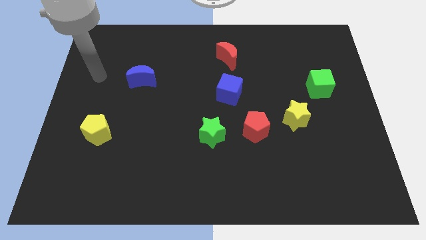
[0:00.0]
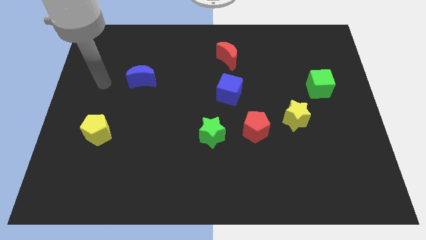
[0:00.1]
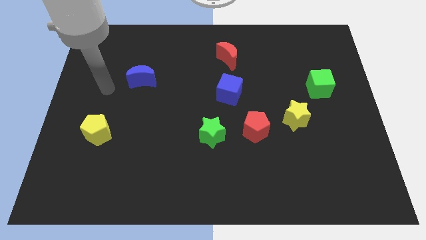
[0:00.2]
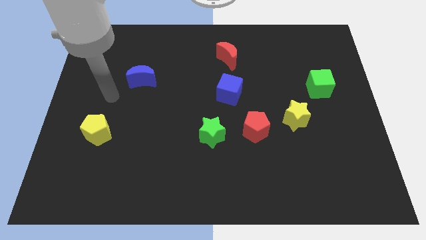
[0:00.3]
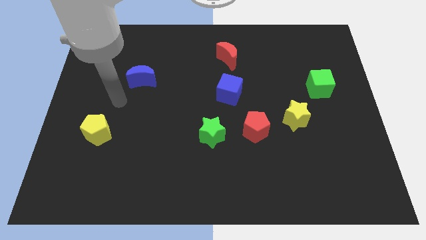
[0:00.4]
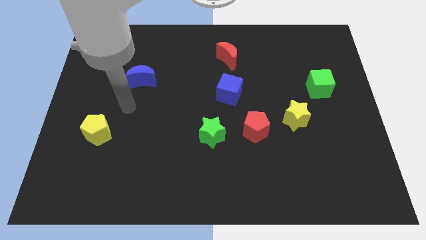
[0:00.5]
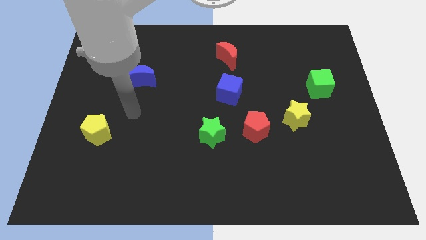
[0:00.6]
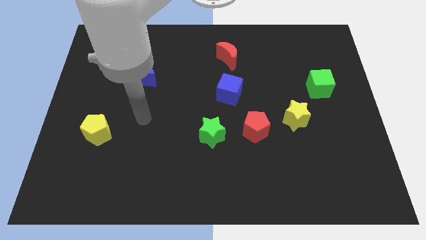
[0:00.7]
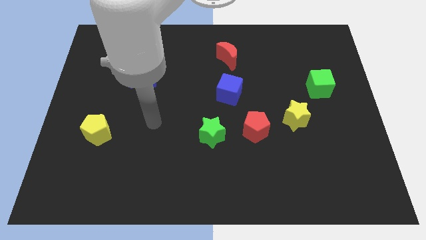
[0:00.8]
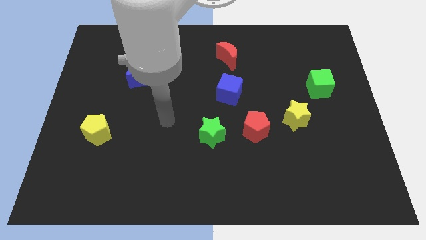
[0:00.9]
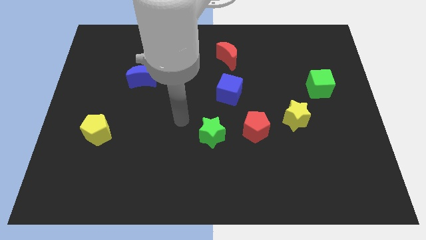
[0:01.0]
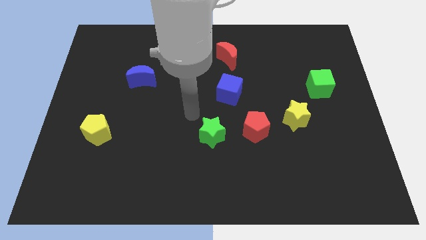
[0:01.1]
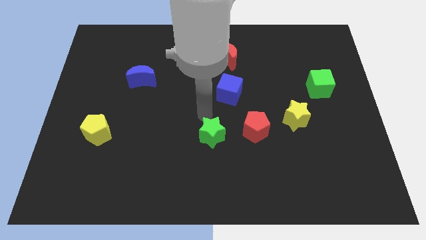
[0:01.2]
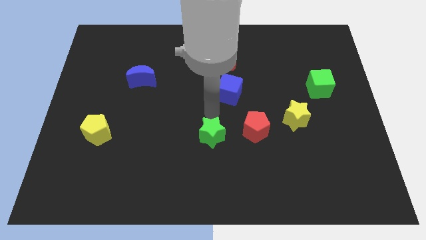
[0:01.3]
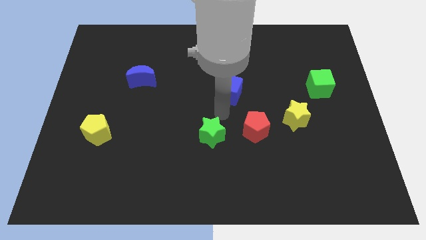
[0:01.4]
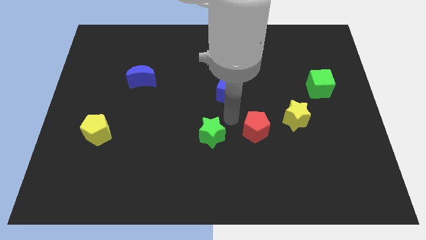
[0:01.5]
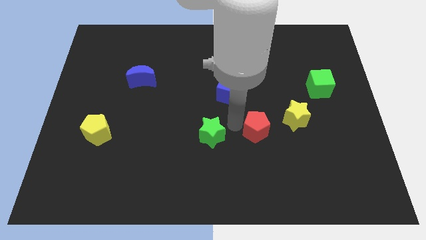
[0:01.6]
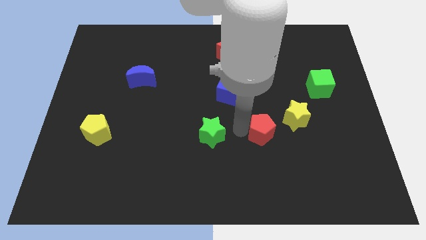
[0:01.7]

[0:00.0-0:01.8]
separate the green star from the red pentagon

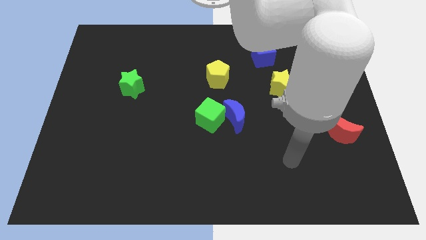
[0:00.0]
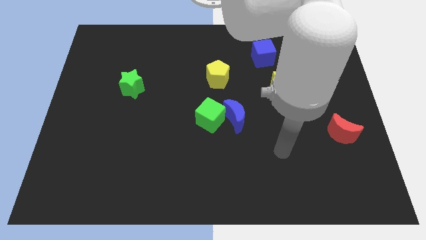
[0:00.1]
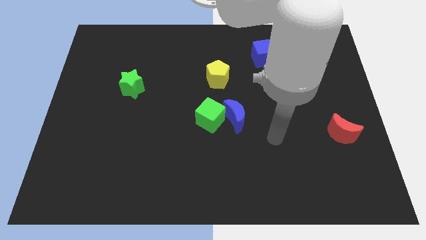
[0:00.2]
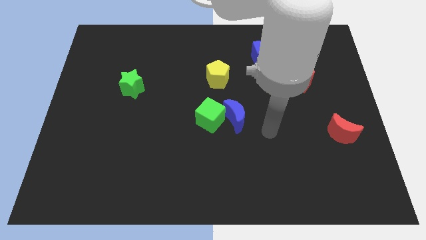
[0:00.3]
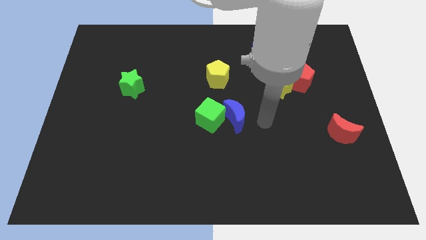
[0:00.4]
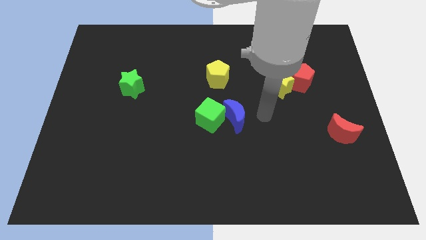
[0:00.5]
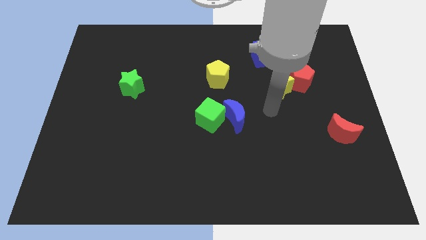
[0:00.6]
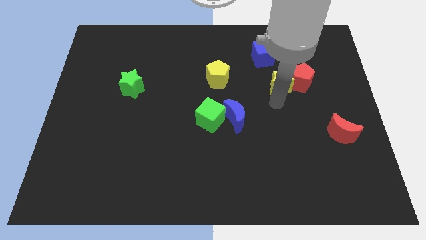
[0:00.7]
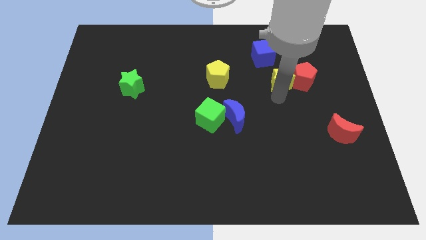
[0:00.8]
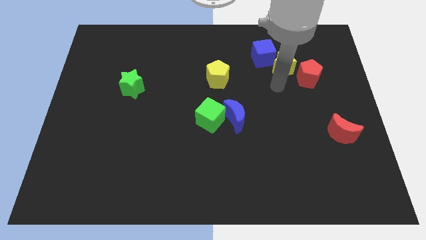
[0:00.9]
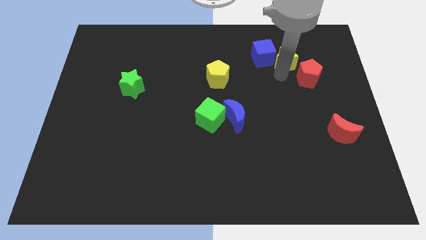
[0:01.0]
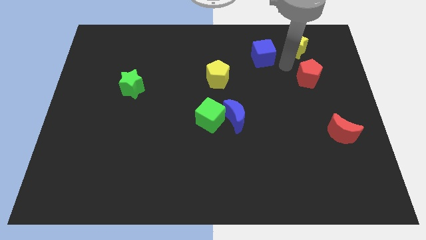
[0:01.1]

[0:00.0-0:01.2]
pull the red pentagon apart from the yellow star

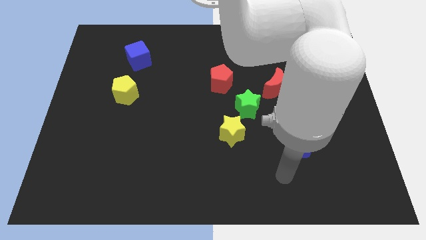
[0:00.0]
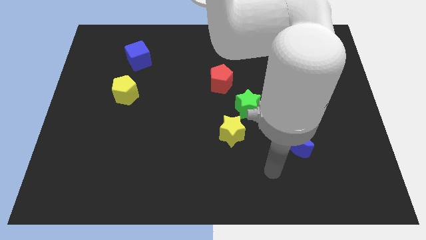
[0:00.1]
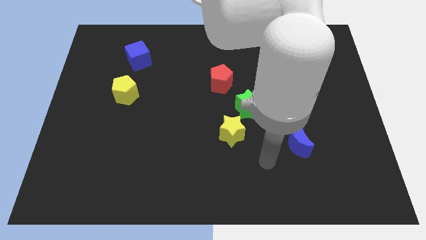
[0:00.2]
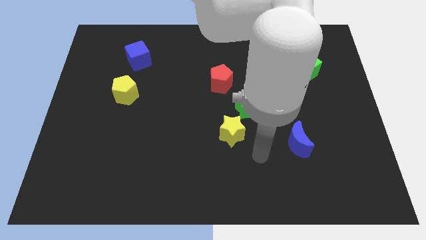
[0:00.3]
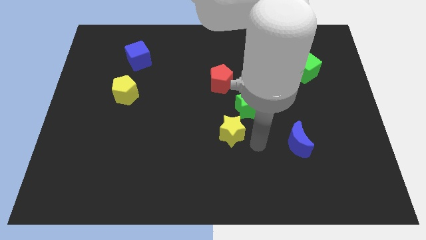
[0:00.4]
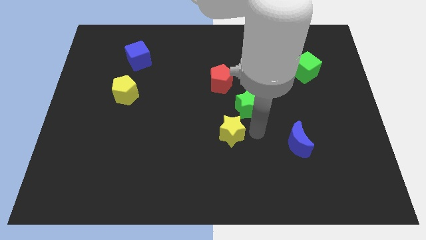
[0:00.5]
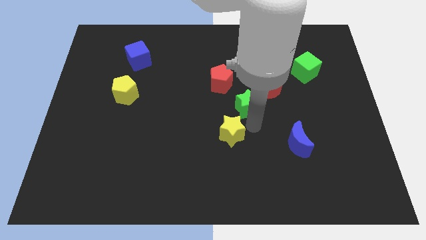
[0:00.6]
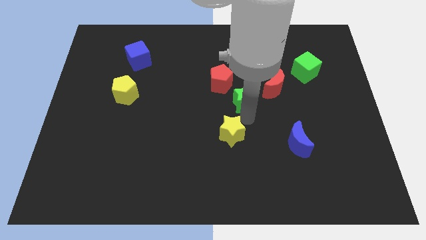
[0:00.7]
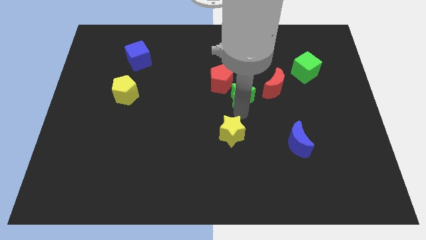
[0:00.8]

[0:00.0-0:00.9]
move the yellow star away from the green star

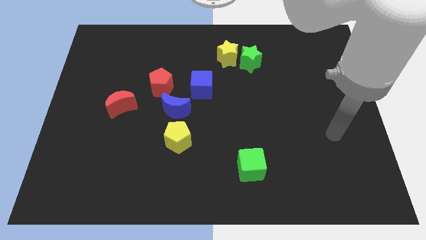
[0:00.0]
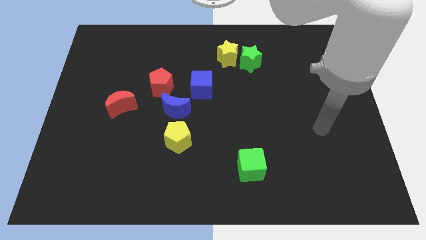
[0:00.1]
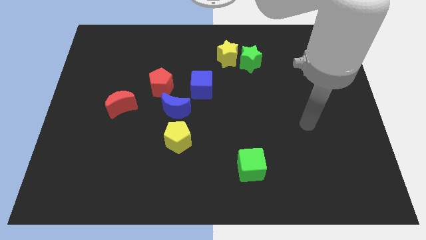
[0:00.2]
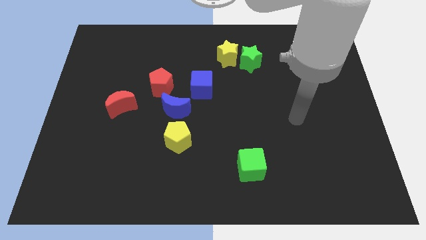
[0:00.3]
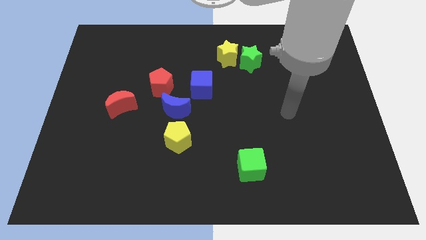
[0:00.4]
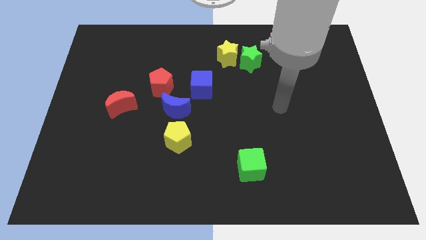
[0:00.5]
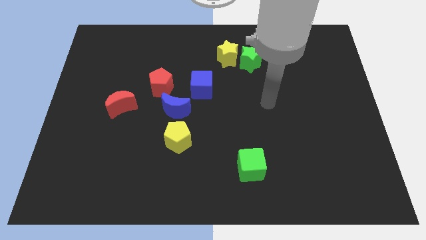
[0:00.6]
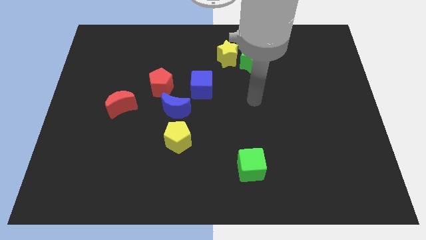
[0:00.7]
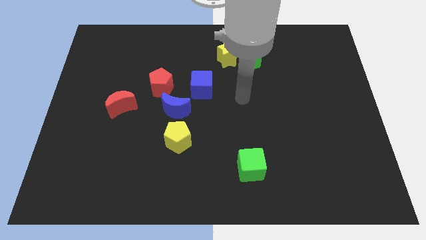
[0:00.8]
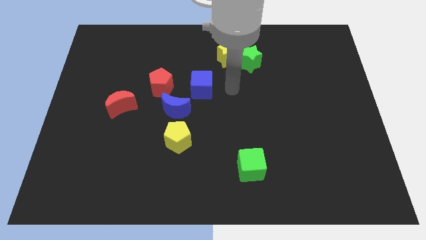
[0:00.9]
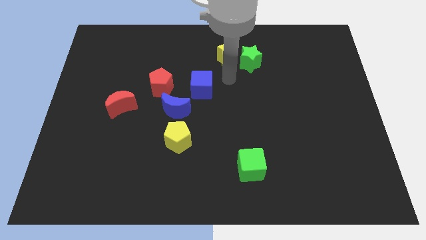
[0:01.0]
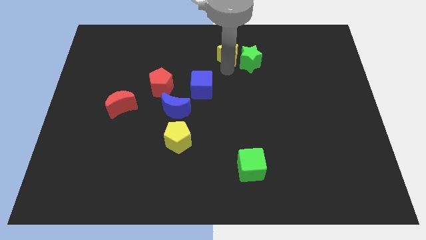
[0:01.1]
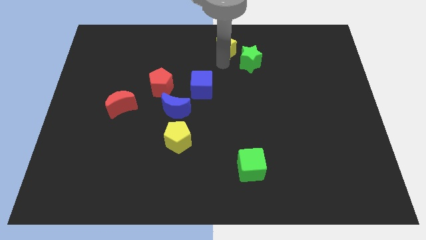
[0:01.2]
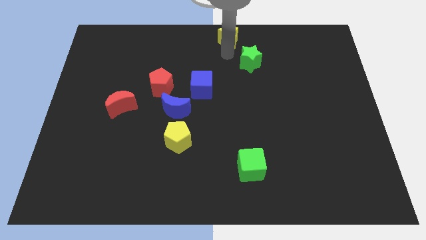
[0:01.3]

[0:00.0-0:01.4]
separate the green star from the yellow star

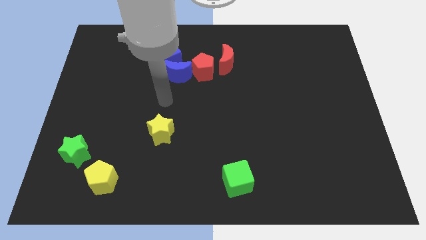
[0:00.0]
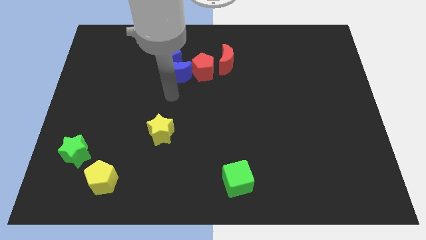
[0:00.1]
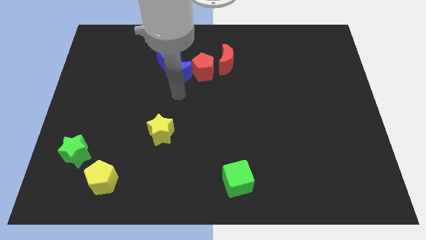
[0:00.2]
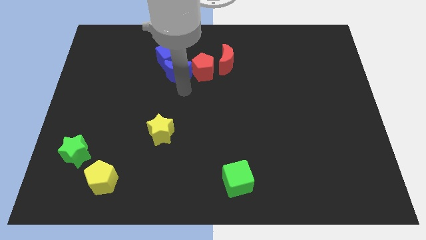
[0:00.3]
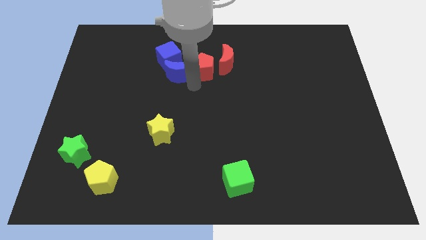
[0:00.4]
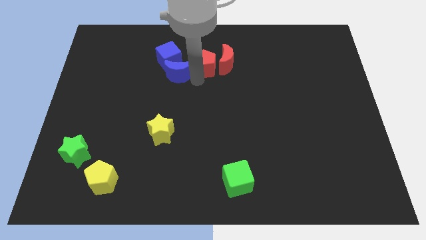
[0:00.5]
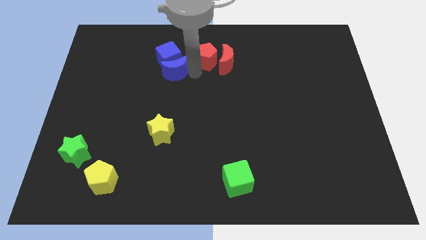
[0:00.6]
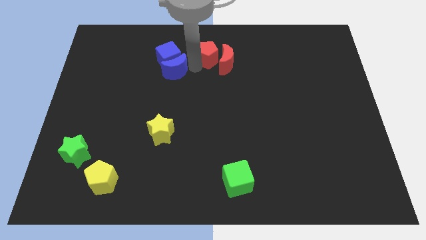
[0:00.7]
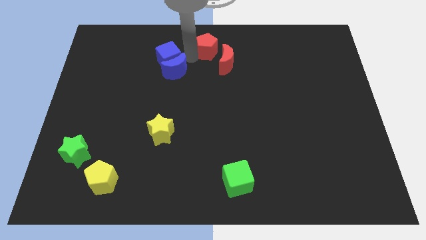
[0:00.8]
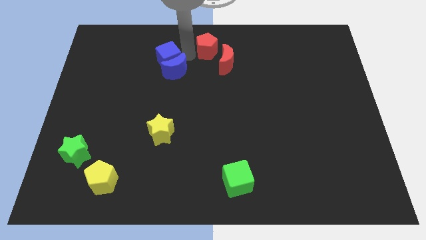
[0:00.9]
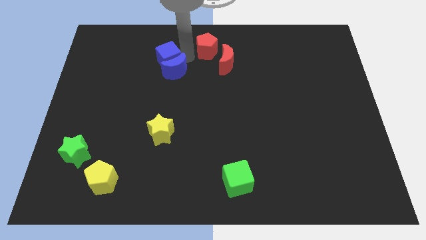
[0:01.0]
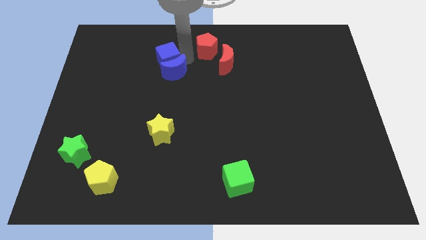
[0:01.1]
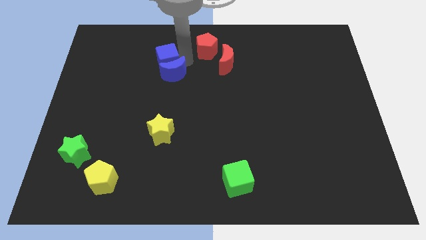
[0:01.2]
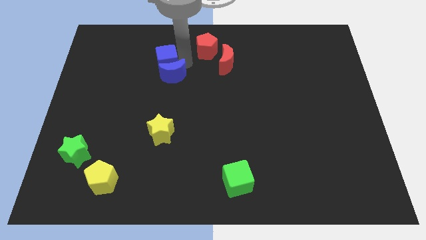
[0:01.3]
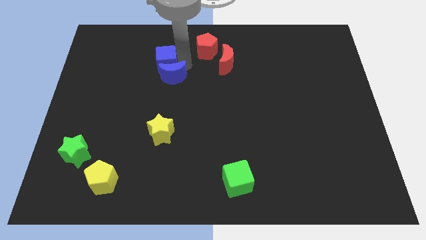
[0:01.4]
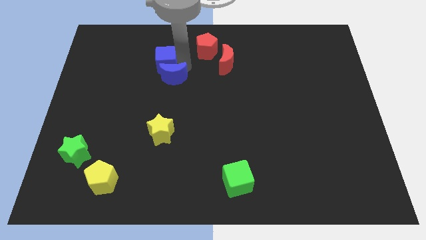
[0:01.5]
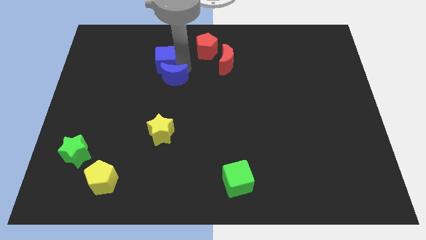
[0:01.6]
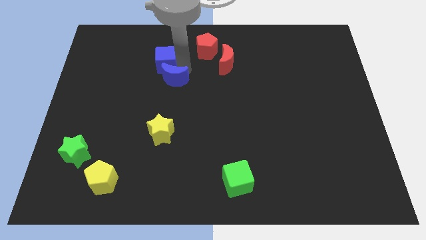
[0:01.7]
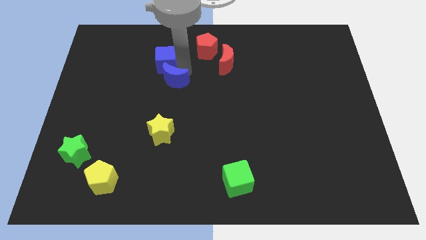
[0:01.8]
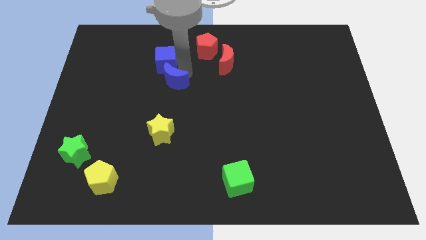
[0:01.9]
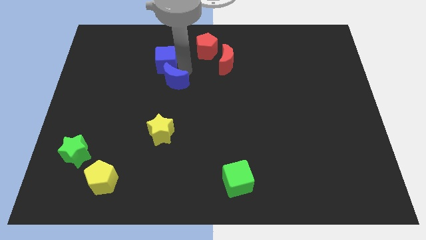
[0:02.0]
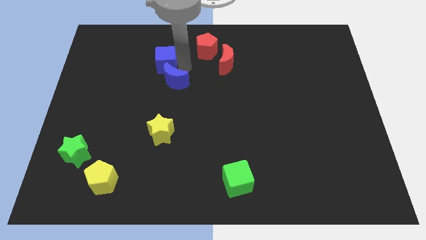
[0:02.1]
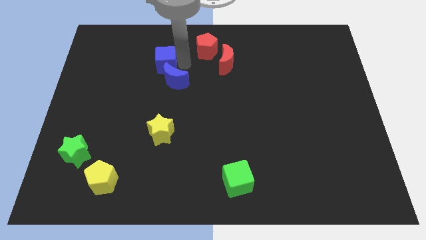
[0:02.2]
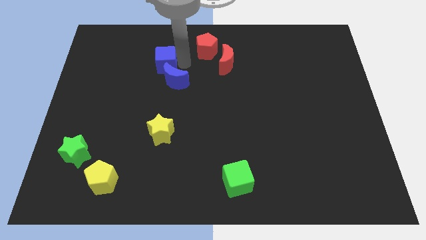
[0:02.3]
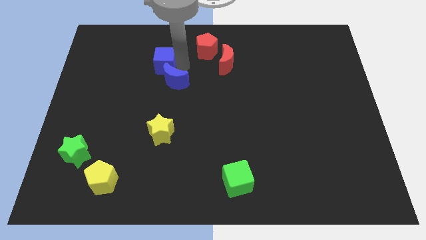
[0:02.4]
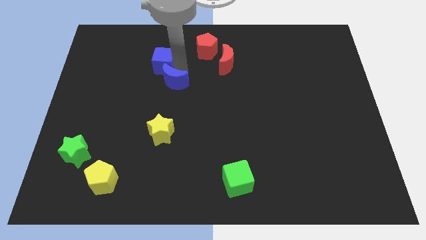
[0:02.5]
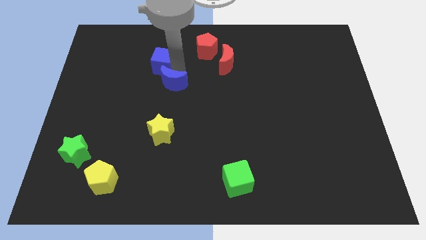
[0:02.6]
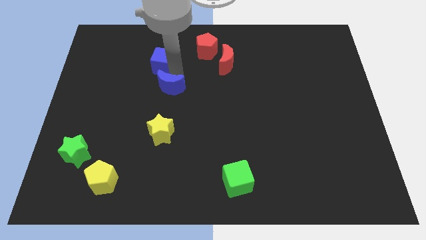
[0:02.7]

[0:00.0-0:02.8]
move the blue moon away from the blue cube and red pentagon

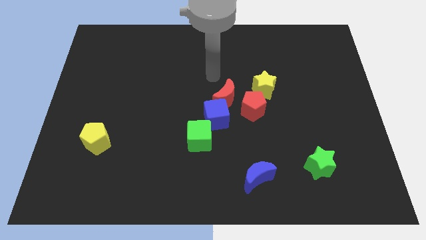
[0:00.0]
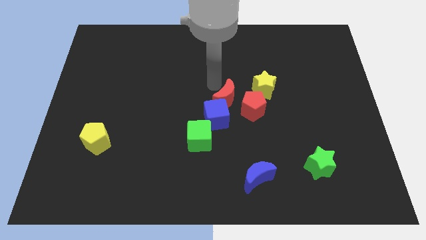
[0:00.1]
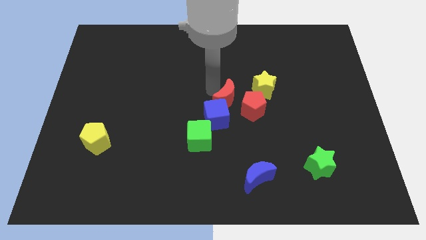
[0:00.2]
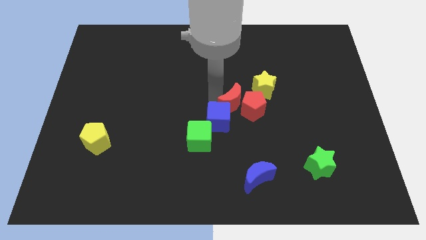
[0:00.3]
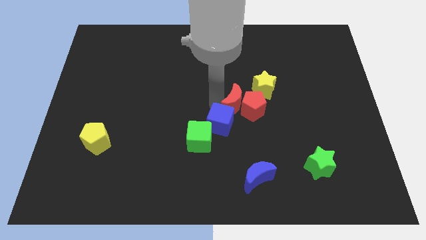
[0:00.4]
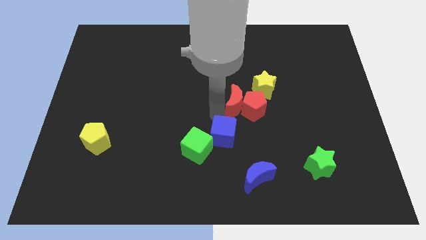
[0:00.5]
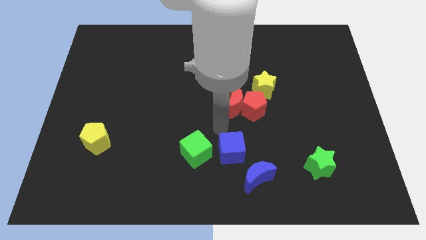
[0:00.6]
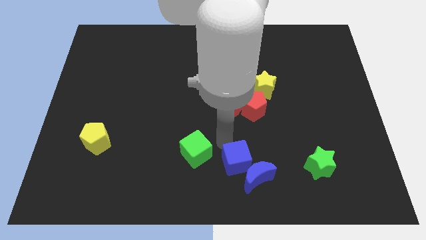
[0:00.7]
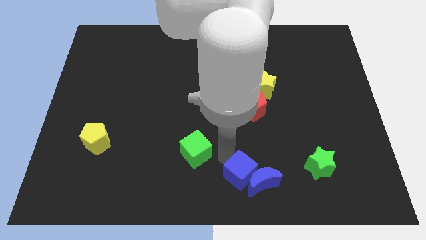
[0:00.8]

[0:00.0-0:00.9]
separate the green cube from the blue cube

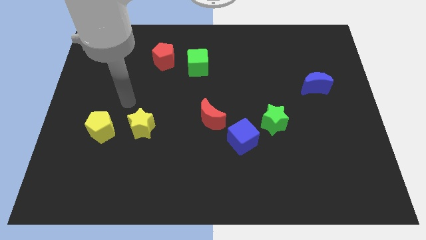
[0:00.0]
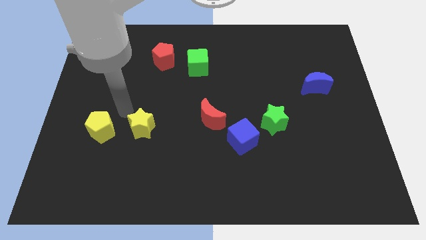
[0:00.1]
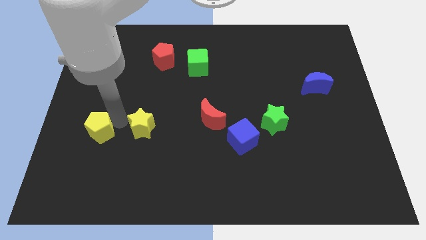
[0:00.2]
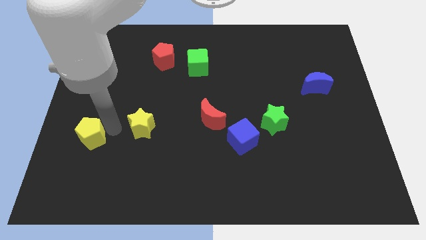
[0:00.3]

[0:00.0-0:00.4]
move the yellow star away from the yellow pentagon
